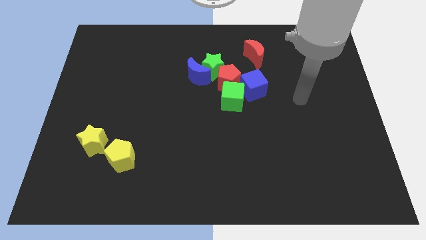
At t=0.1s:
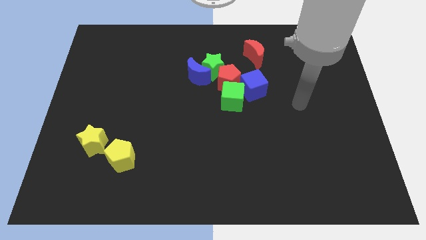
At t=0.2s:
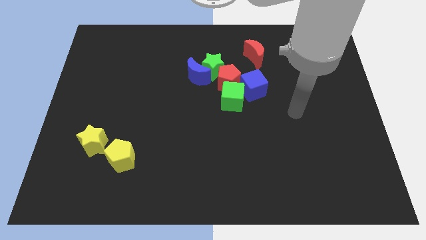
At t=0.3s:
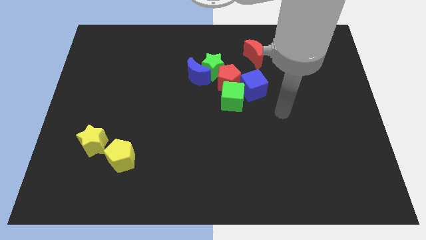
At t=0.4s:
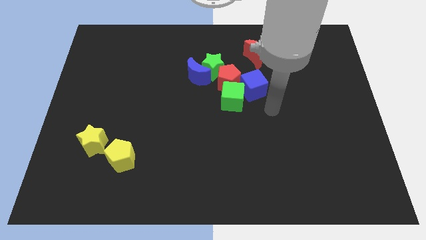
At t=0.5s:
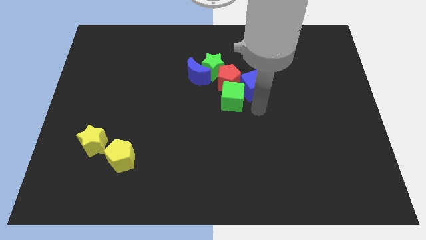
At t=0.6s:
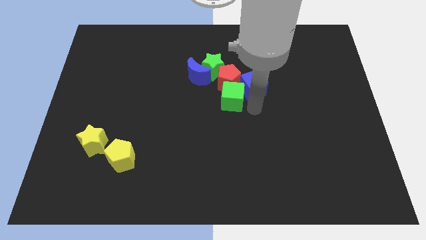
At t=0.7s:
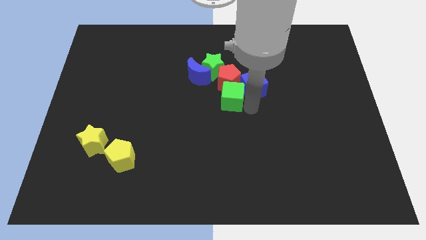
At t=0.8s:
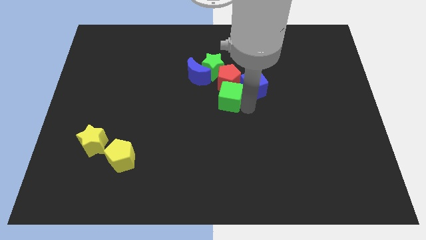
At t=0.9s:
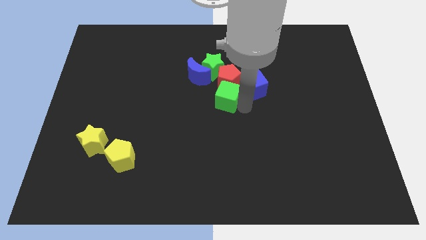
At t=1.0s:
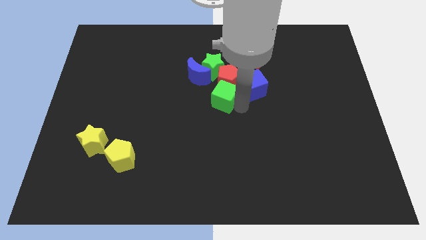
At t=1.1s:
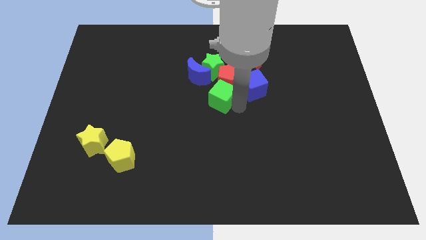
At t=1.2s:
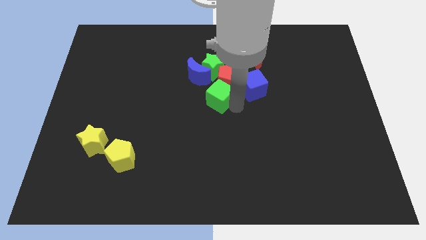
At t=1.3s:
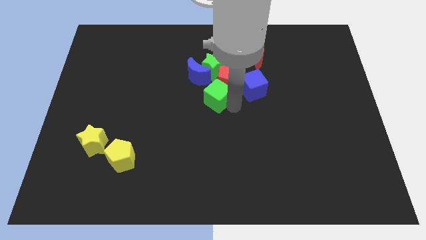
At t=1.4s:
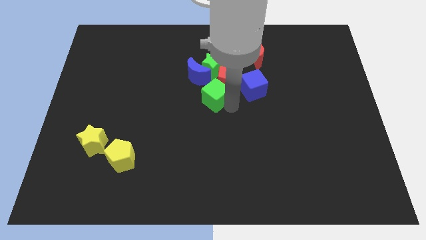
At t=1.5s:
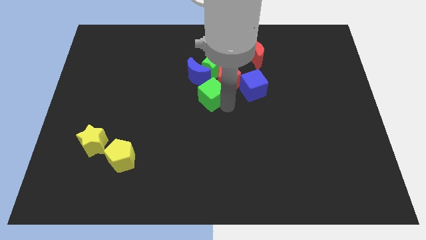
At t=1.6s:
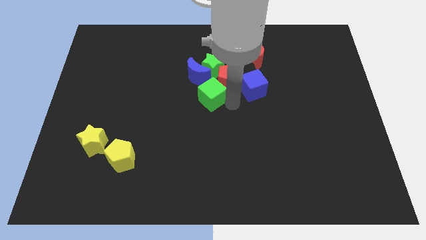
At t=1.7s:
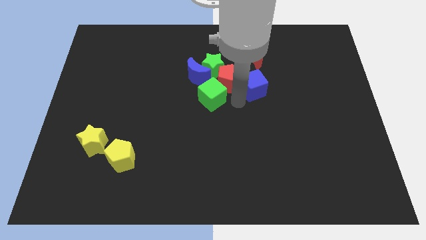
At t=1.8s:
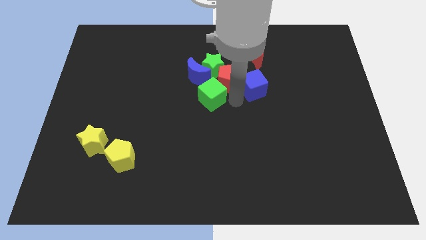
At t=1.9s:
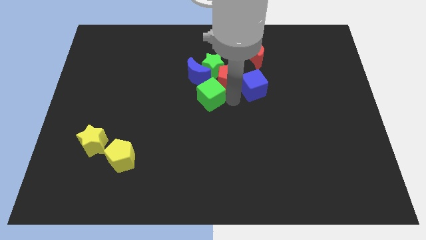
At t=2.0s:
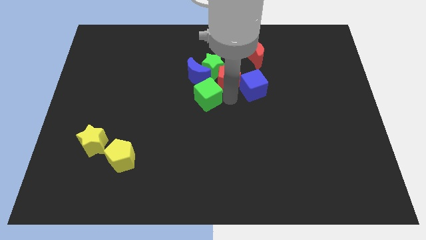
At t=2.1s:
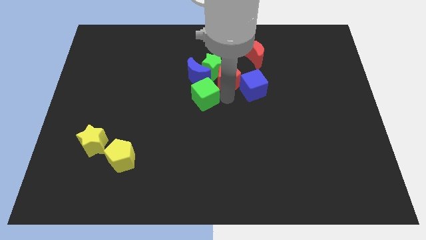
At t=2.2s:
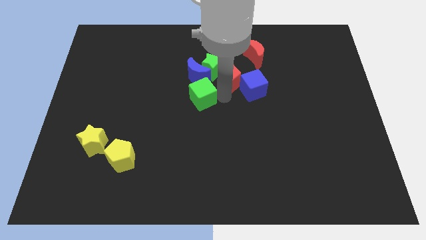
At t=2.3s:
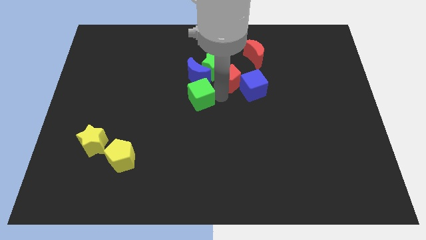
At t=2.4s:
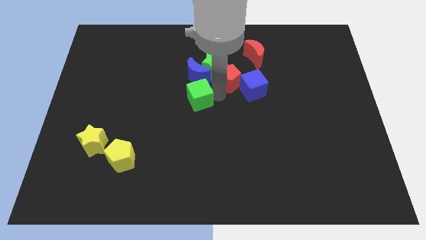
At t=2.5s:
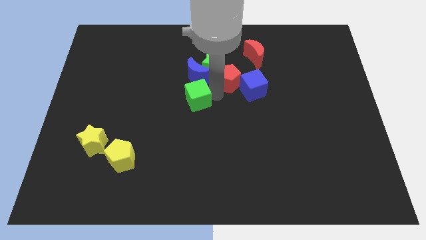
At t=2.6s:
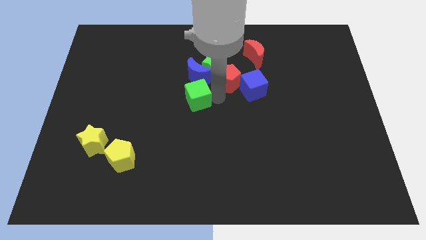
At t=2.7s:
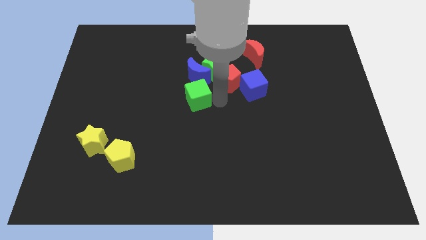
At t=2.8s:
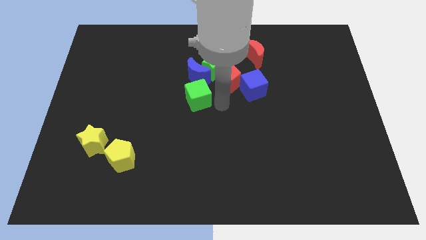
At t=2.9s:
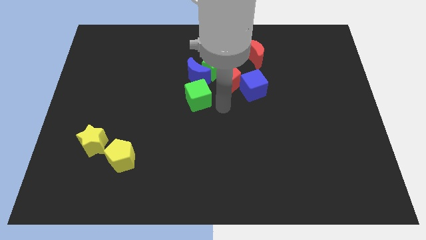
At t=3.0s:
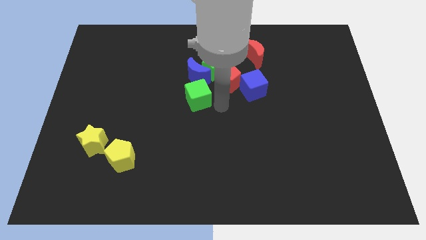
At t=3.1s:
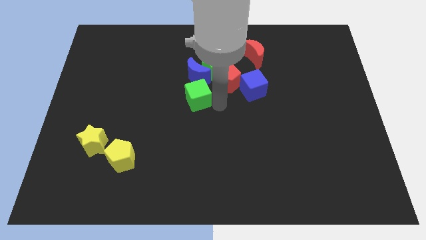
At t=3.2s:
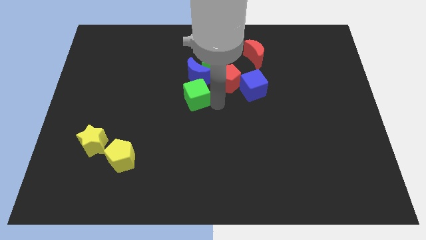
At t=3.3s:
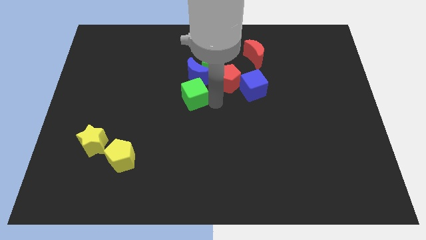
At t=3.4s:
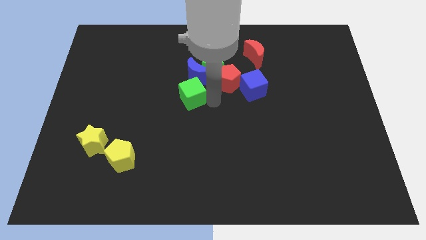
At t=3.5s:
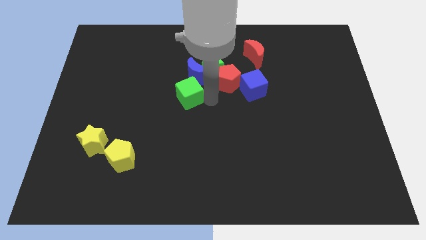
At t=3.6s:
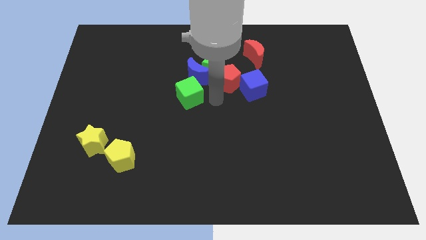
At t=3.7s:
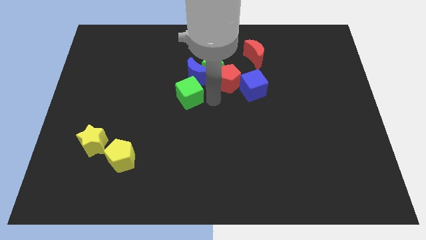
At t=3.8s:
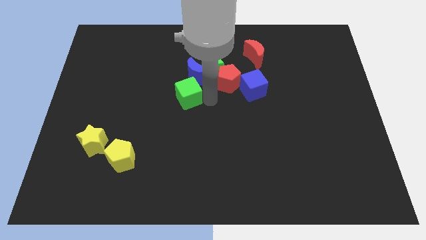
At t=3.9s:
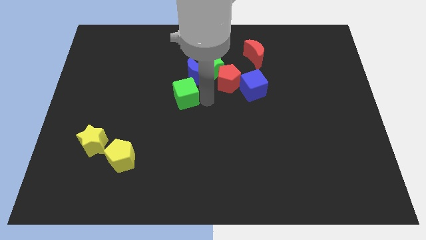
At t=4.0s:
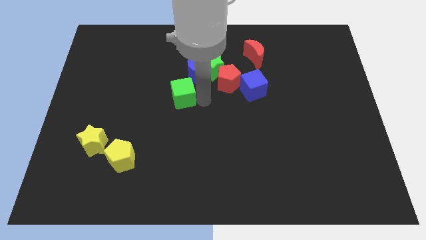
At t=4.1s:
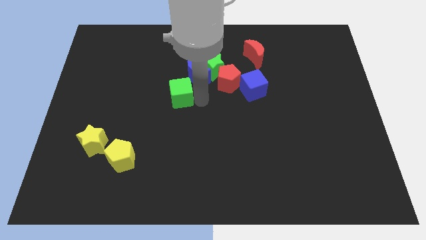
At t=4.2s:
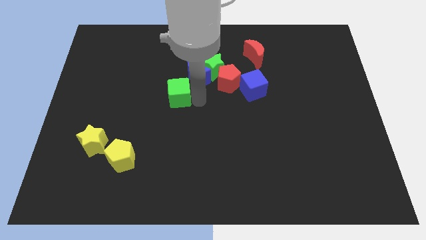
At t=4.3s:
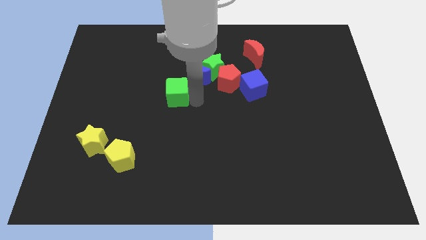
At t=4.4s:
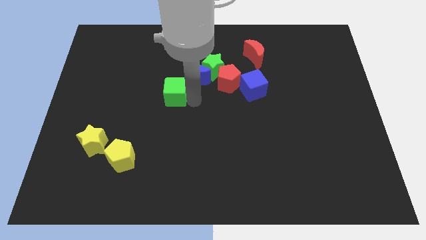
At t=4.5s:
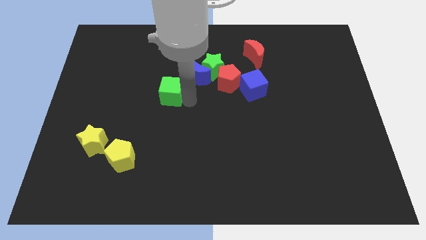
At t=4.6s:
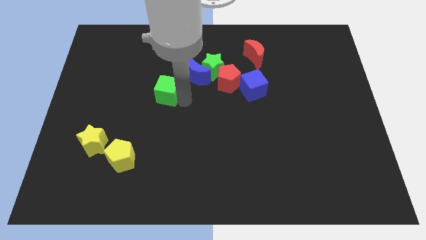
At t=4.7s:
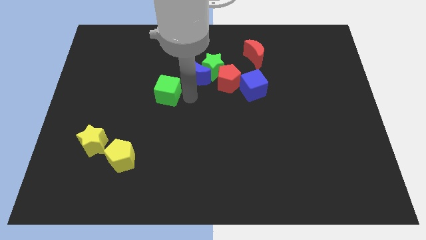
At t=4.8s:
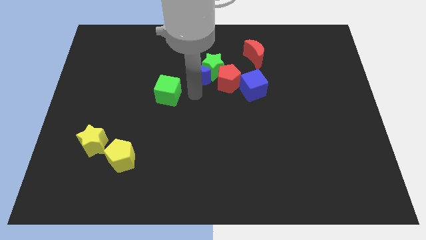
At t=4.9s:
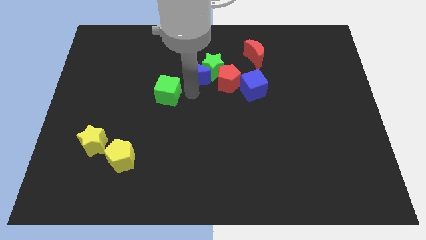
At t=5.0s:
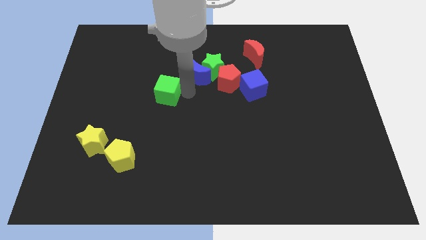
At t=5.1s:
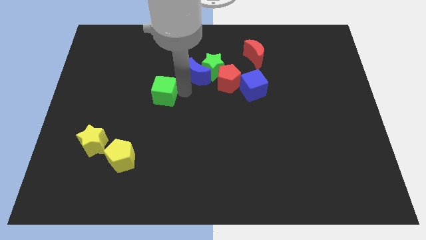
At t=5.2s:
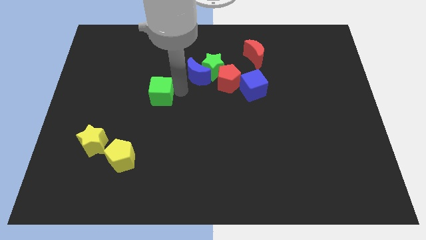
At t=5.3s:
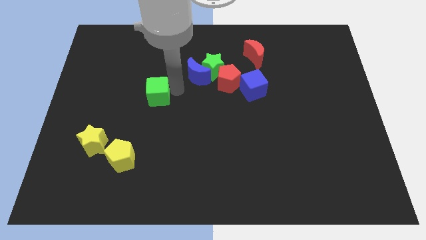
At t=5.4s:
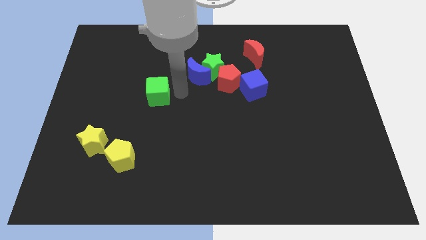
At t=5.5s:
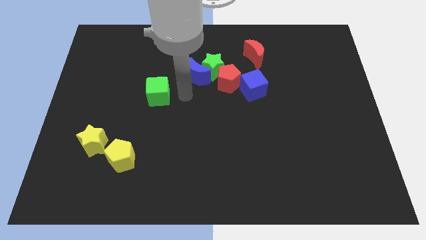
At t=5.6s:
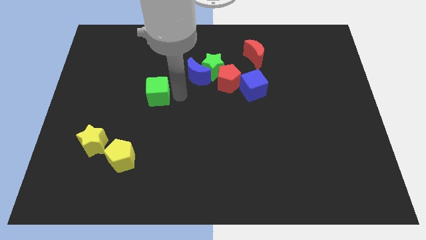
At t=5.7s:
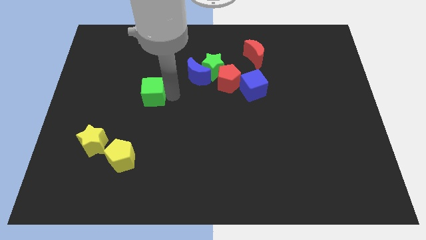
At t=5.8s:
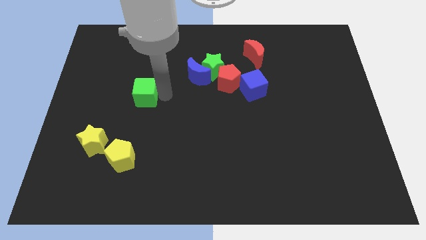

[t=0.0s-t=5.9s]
move the green cube left

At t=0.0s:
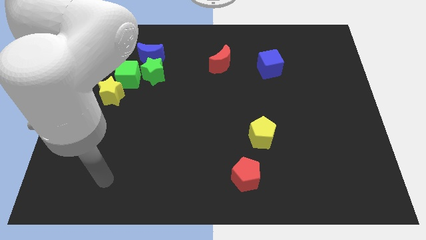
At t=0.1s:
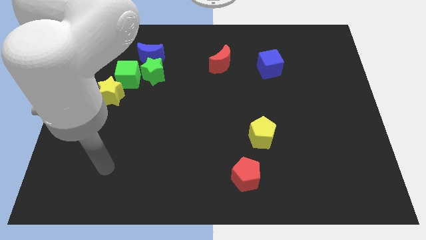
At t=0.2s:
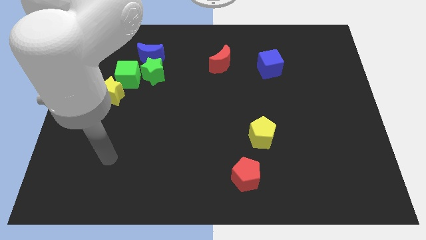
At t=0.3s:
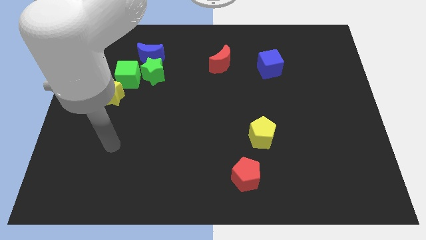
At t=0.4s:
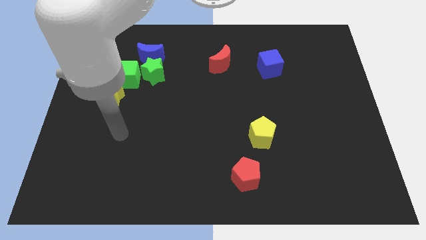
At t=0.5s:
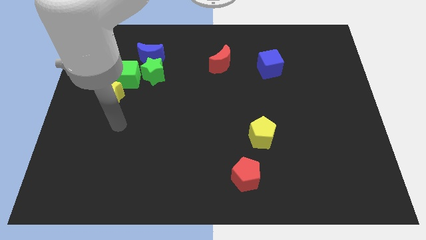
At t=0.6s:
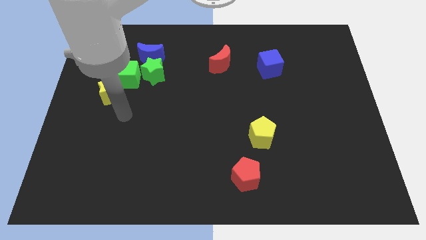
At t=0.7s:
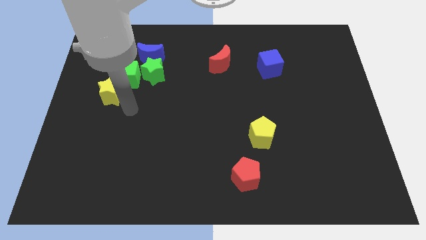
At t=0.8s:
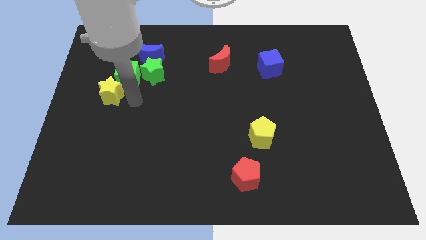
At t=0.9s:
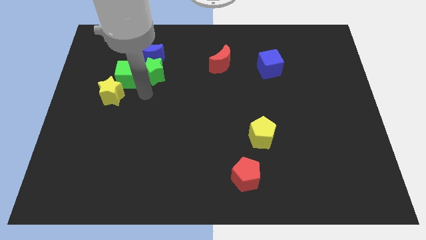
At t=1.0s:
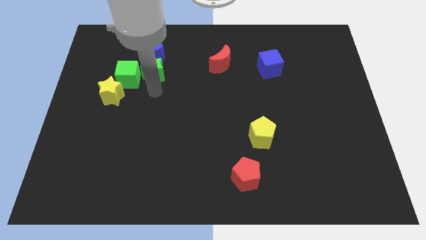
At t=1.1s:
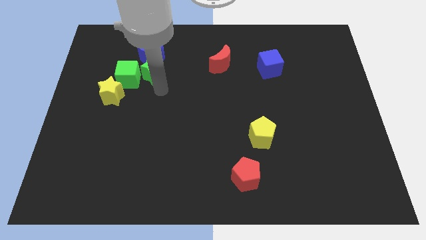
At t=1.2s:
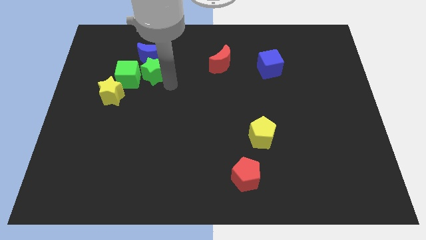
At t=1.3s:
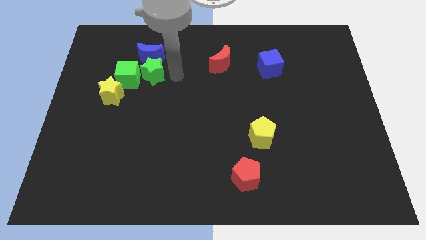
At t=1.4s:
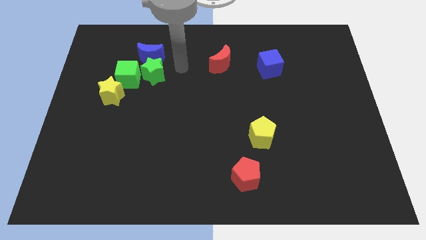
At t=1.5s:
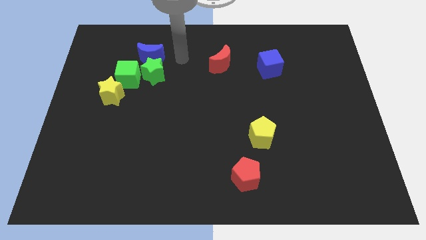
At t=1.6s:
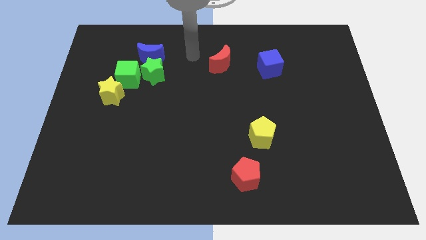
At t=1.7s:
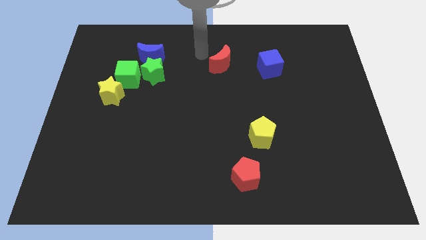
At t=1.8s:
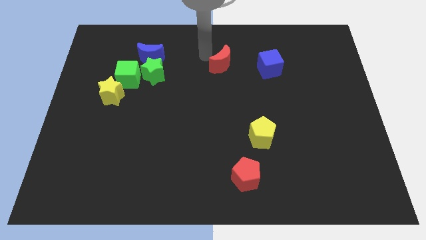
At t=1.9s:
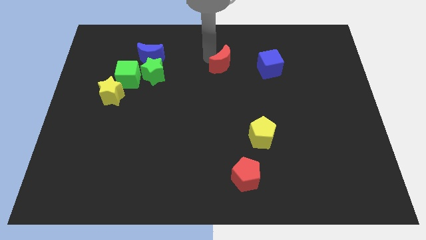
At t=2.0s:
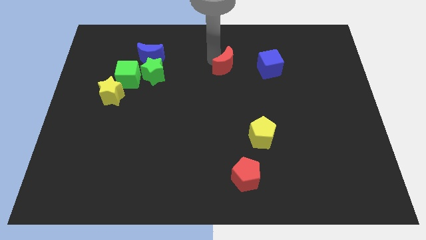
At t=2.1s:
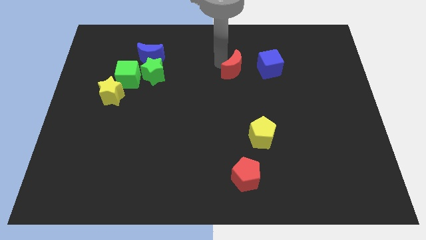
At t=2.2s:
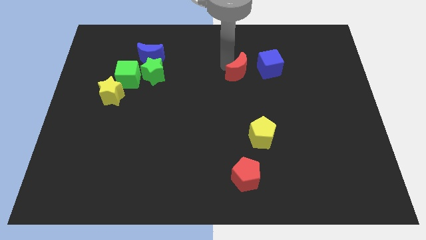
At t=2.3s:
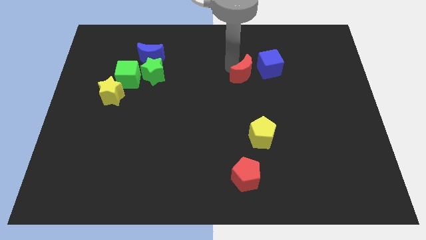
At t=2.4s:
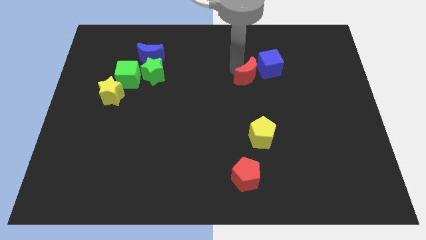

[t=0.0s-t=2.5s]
slightly slide the red moon downwards and right
